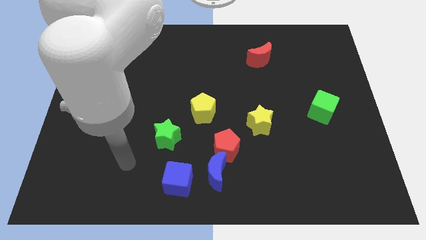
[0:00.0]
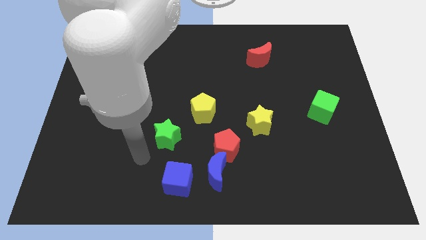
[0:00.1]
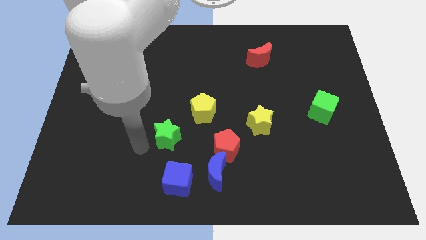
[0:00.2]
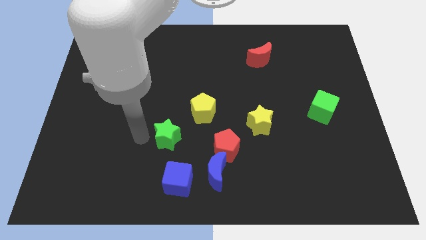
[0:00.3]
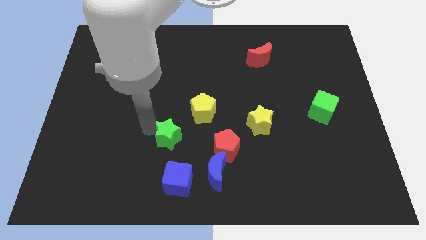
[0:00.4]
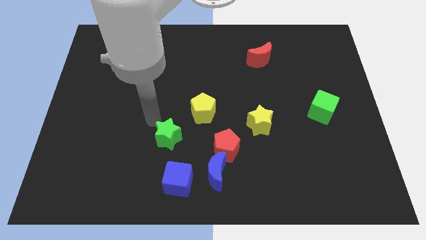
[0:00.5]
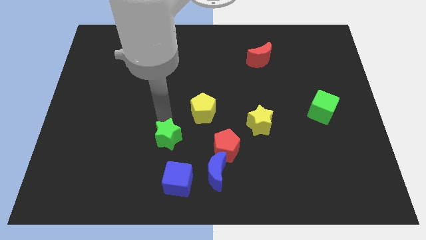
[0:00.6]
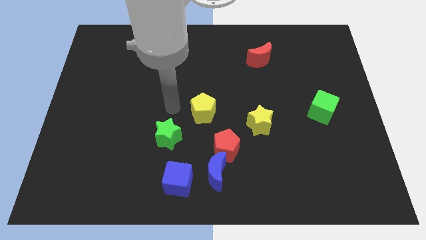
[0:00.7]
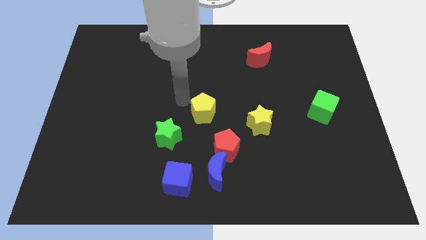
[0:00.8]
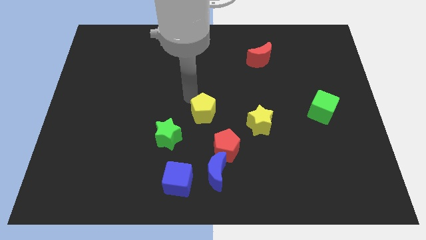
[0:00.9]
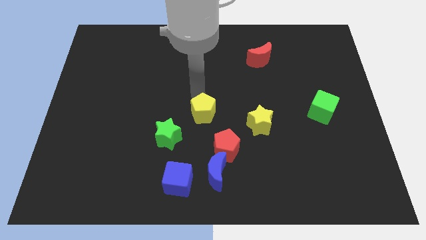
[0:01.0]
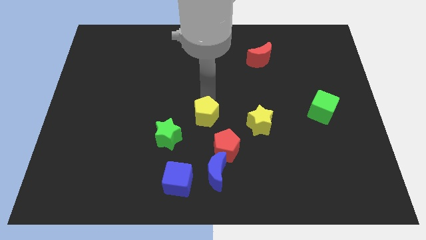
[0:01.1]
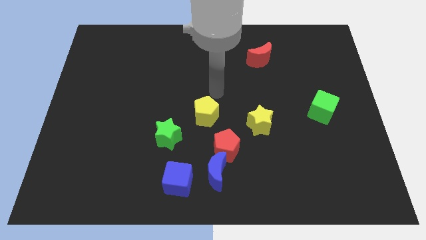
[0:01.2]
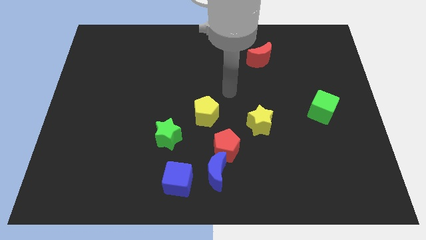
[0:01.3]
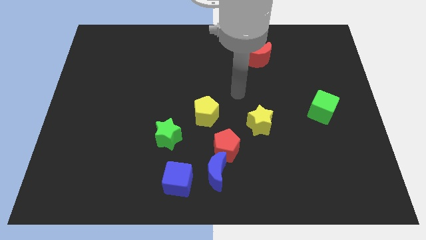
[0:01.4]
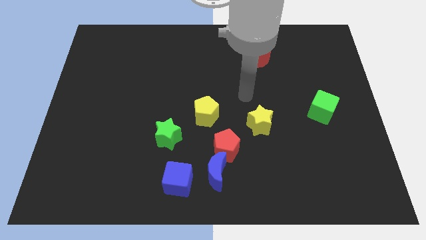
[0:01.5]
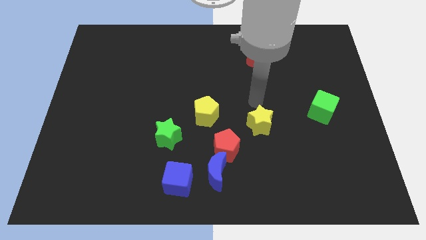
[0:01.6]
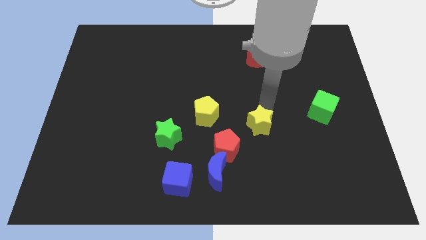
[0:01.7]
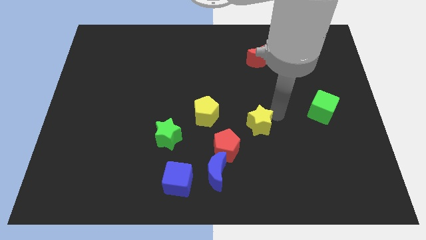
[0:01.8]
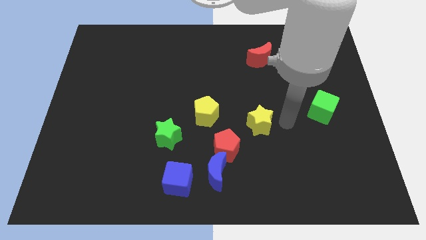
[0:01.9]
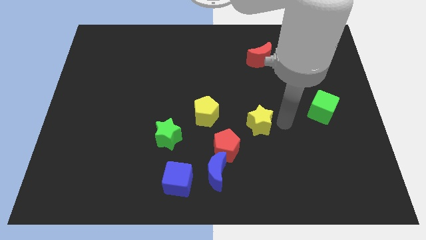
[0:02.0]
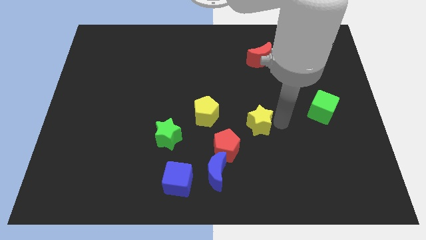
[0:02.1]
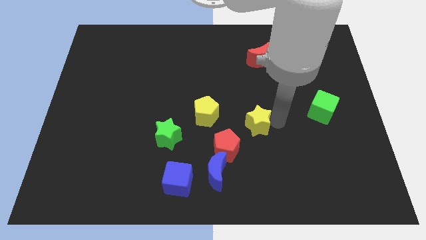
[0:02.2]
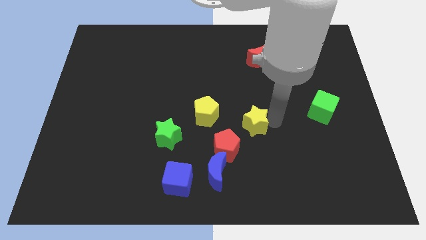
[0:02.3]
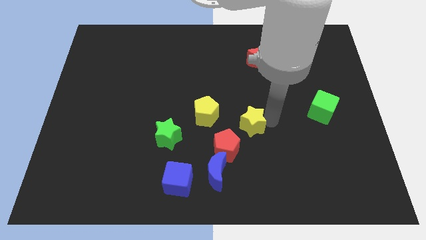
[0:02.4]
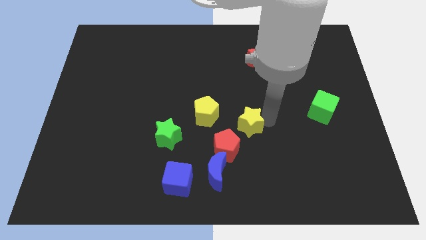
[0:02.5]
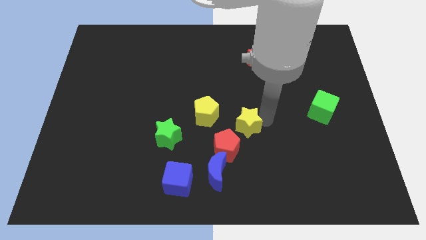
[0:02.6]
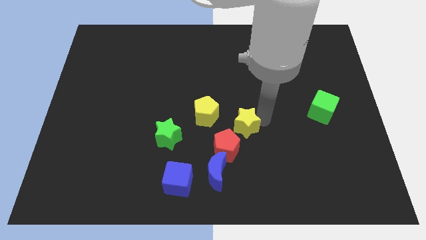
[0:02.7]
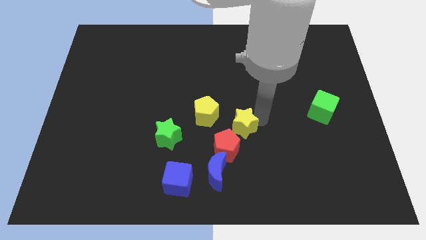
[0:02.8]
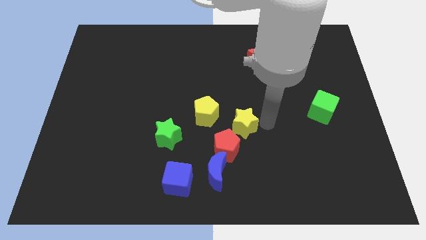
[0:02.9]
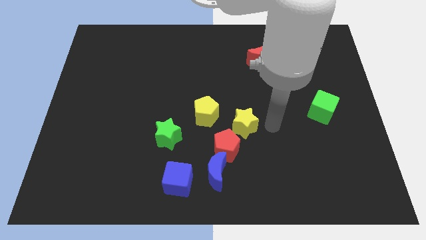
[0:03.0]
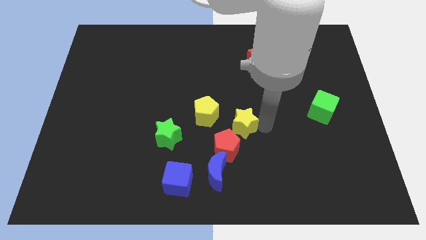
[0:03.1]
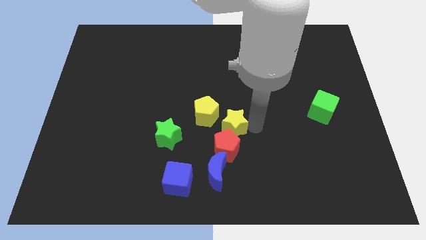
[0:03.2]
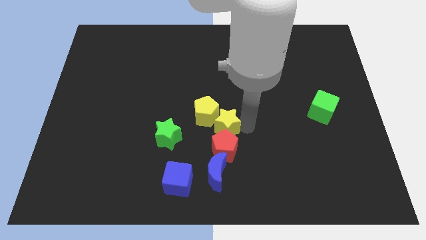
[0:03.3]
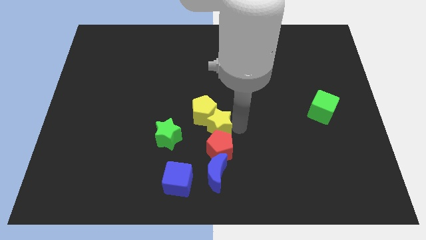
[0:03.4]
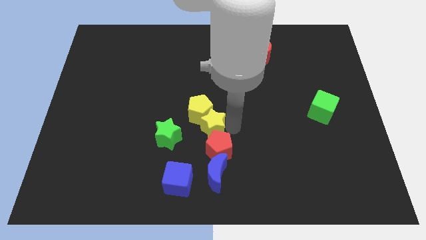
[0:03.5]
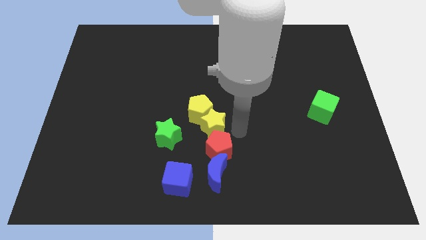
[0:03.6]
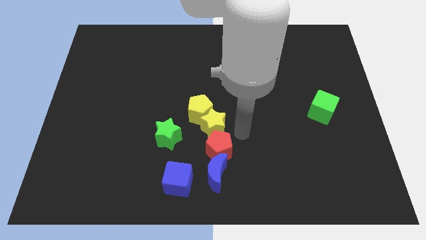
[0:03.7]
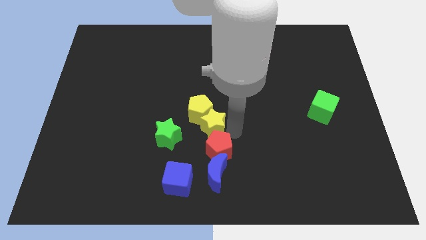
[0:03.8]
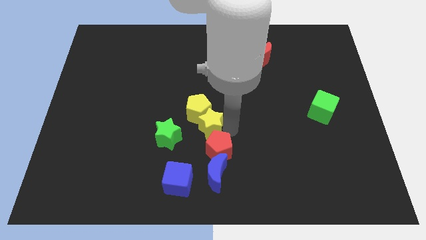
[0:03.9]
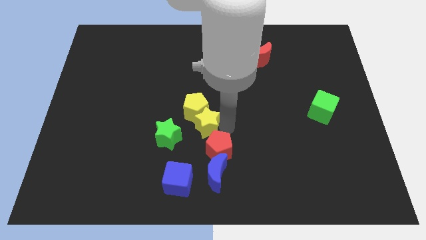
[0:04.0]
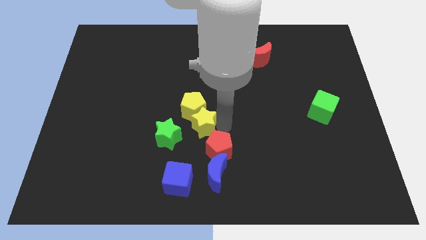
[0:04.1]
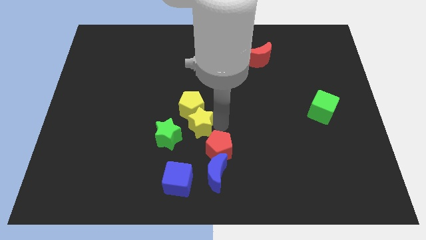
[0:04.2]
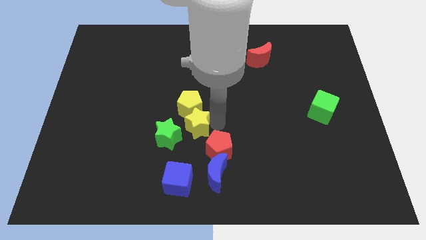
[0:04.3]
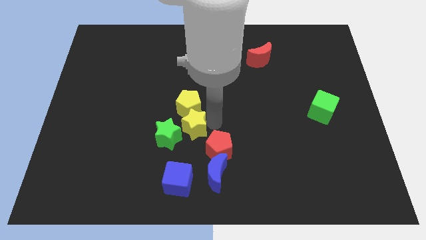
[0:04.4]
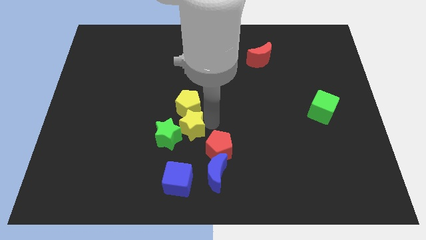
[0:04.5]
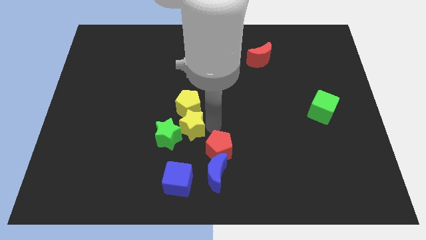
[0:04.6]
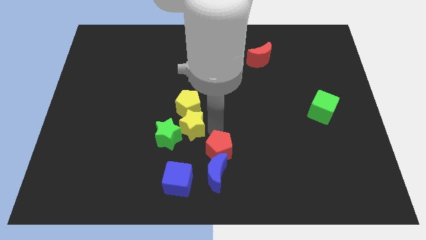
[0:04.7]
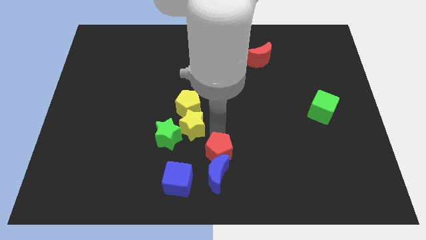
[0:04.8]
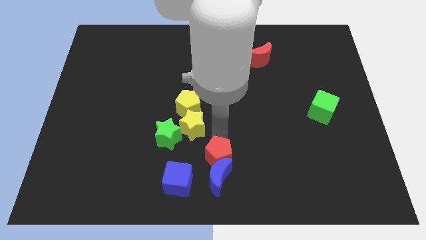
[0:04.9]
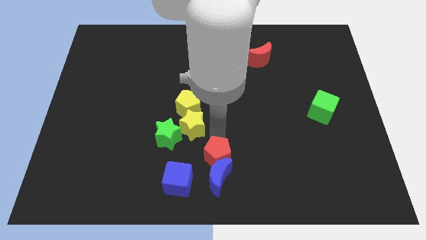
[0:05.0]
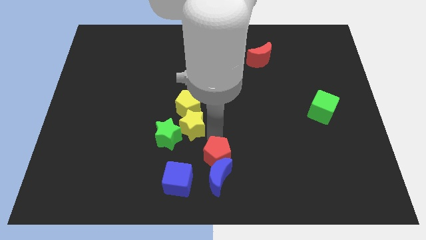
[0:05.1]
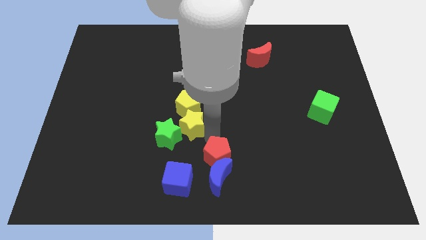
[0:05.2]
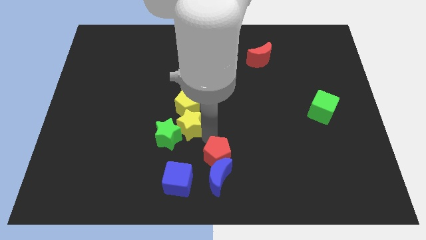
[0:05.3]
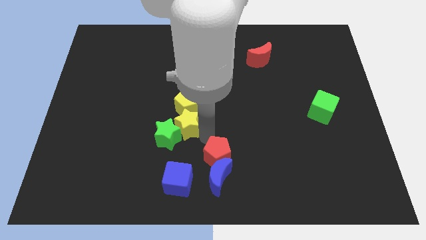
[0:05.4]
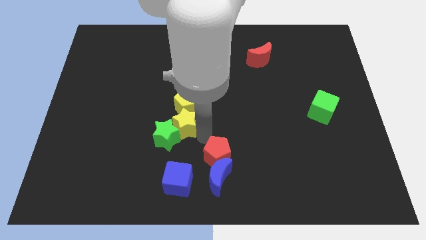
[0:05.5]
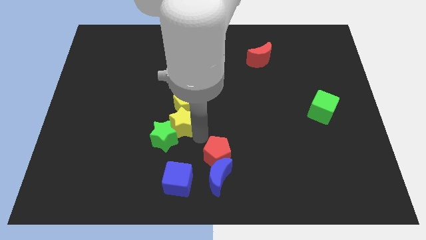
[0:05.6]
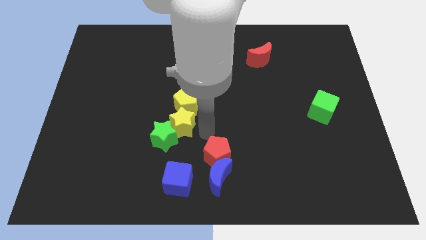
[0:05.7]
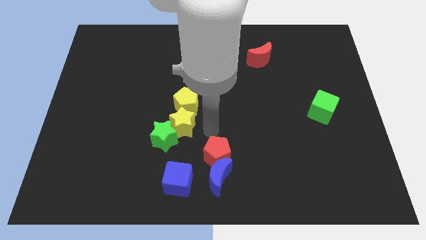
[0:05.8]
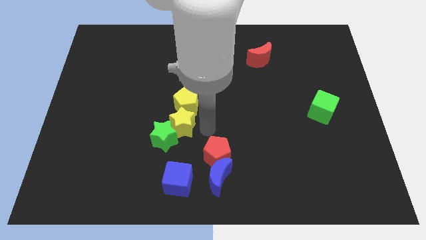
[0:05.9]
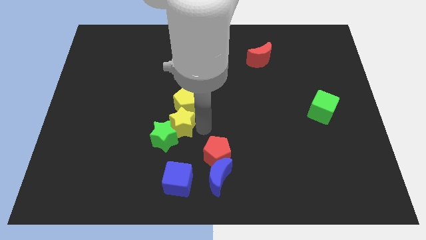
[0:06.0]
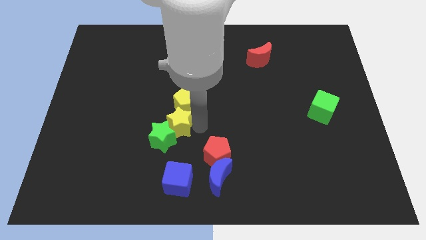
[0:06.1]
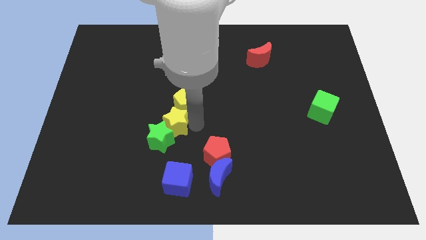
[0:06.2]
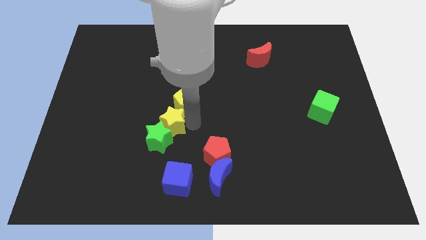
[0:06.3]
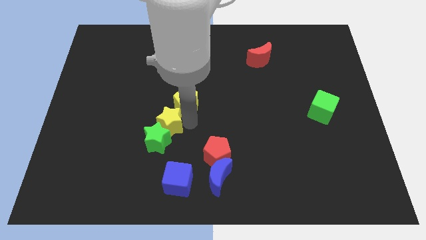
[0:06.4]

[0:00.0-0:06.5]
slide the yellow star left

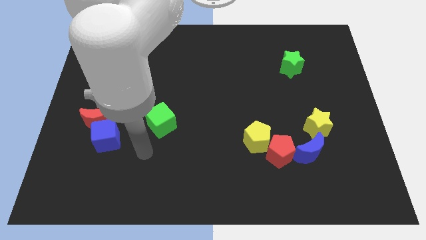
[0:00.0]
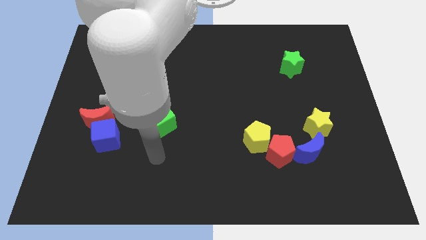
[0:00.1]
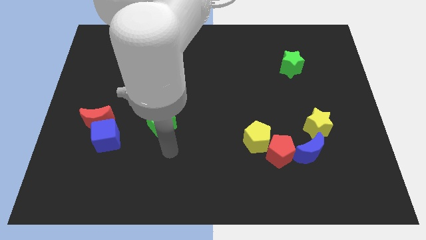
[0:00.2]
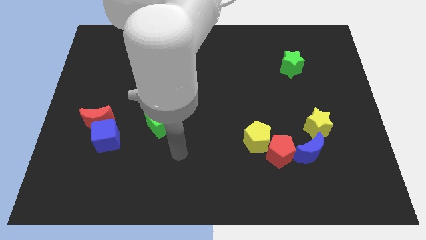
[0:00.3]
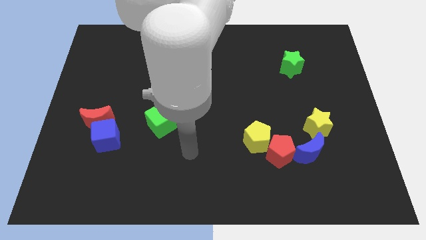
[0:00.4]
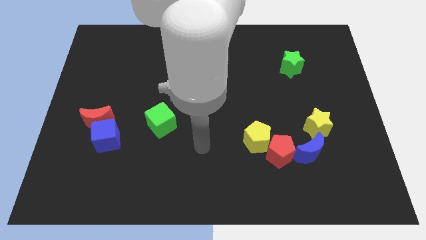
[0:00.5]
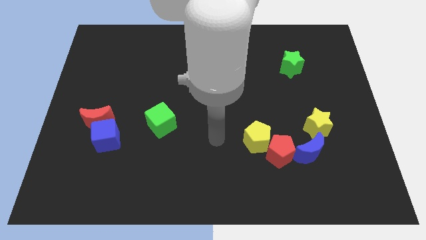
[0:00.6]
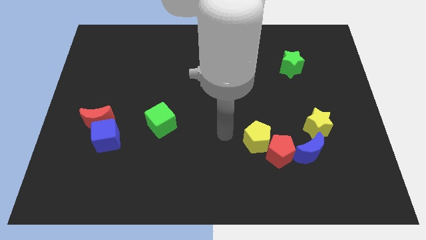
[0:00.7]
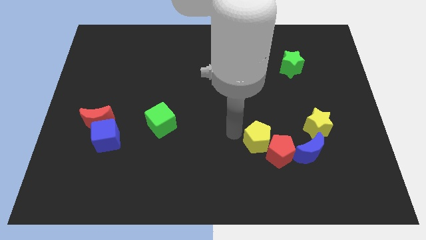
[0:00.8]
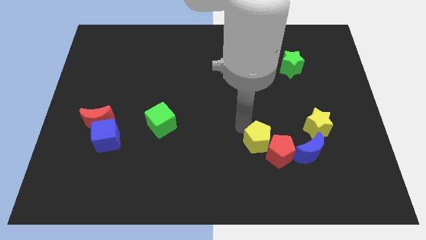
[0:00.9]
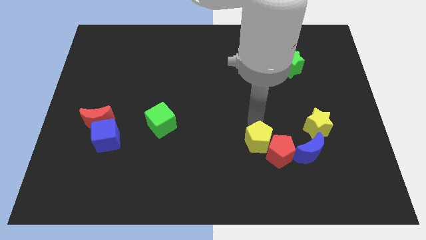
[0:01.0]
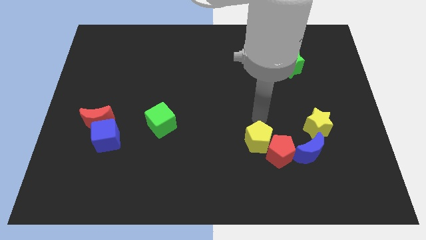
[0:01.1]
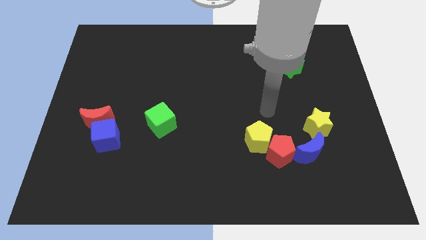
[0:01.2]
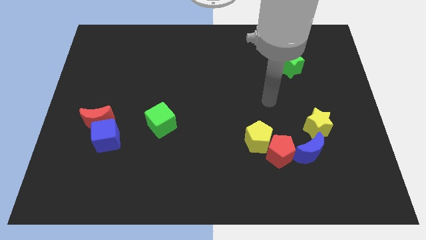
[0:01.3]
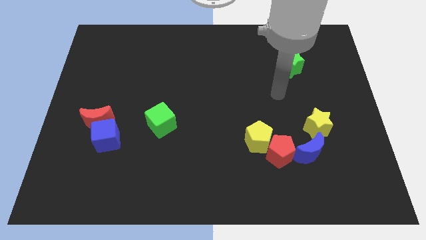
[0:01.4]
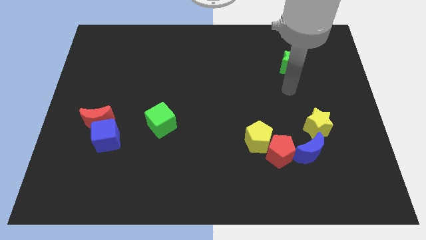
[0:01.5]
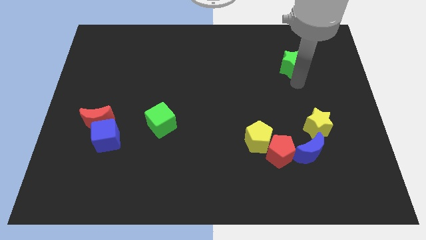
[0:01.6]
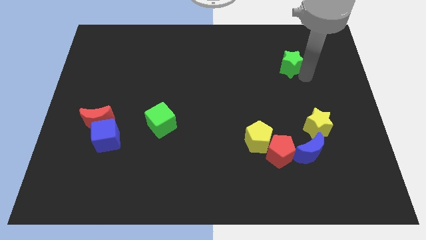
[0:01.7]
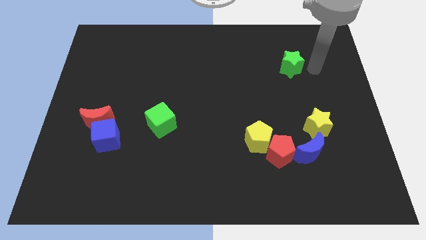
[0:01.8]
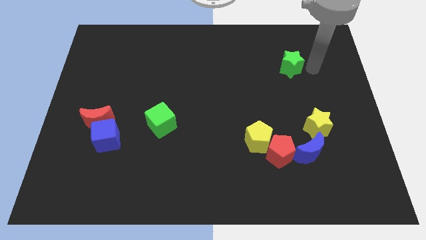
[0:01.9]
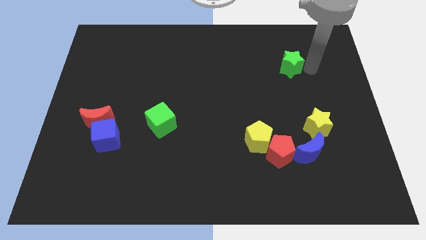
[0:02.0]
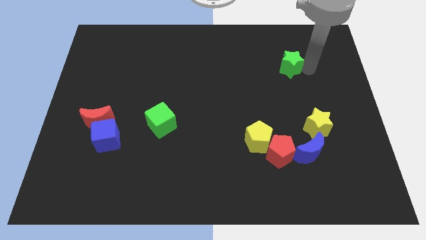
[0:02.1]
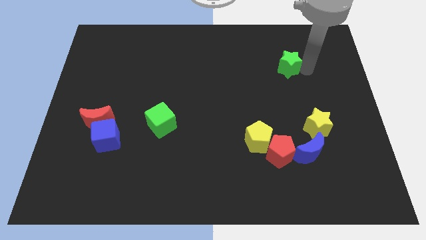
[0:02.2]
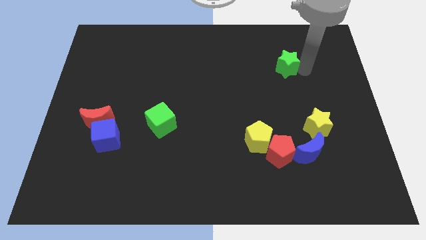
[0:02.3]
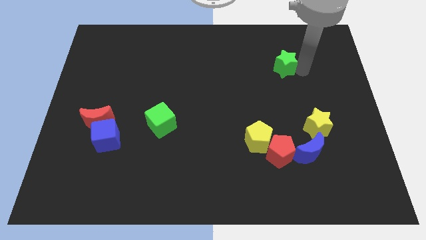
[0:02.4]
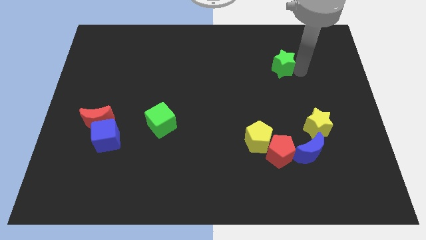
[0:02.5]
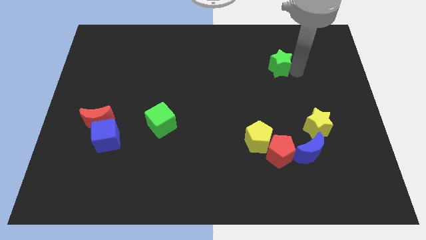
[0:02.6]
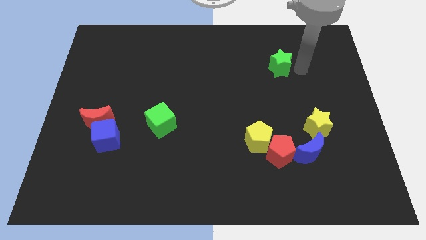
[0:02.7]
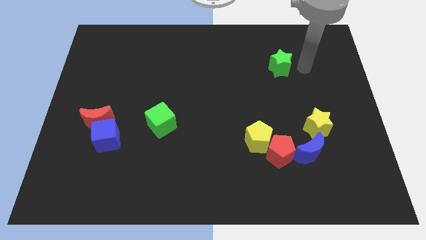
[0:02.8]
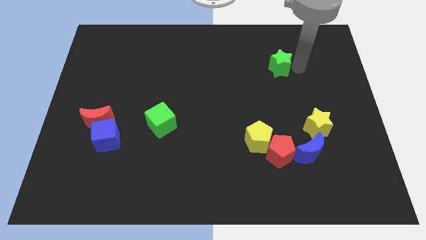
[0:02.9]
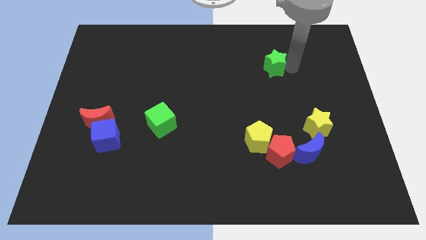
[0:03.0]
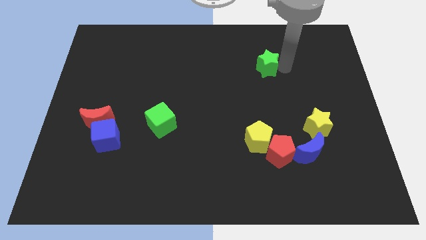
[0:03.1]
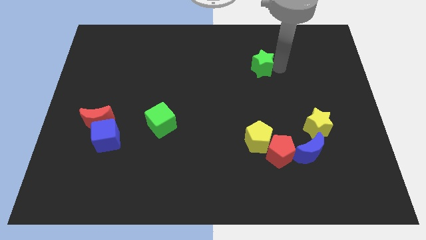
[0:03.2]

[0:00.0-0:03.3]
move the green star a little to the left
